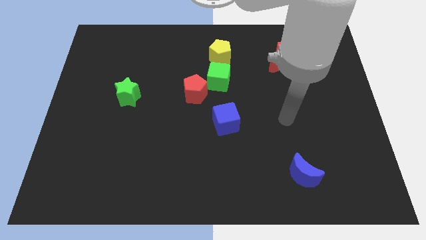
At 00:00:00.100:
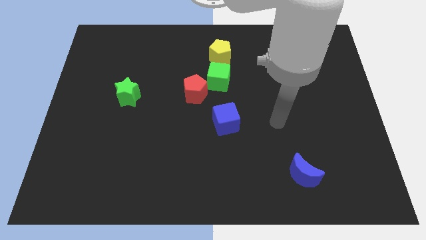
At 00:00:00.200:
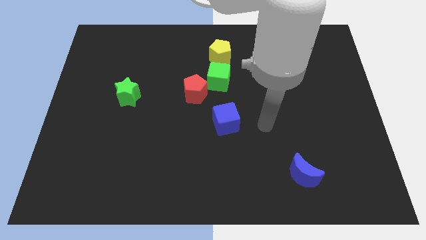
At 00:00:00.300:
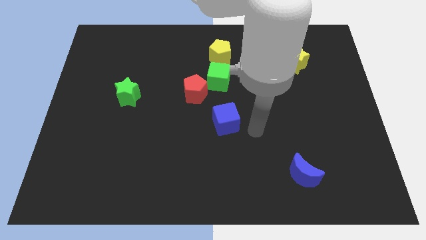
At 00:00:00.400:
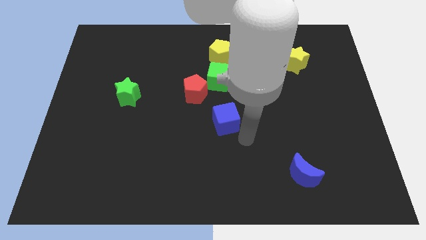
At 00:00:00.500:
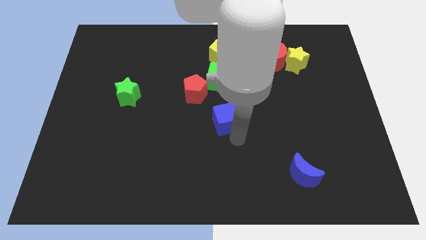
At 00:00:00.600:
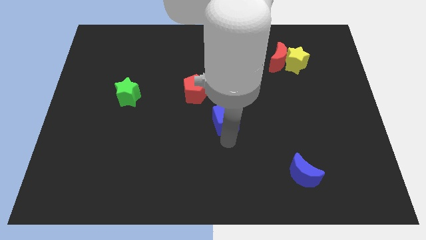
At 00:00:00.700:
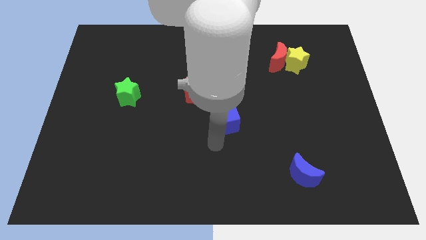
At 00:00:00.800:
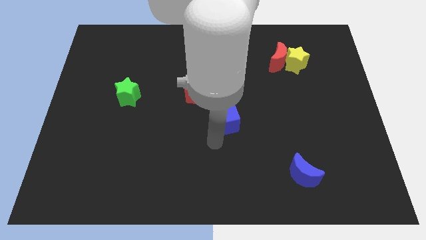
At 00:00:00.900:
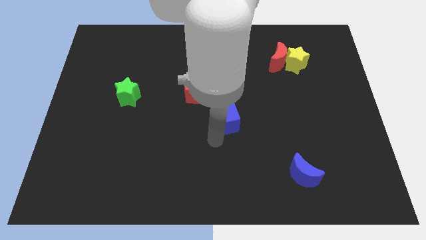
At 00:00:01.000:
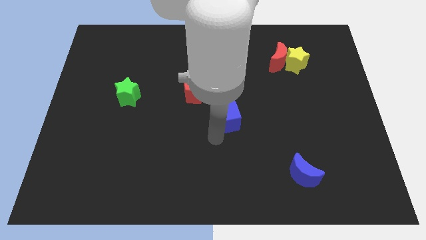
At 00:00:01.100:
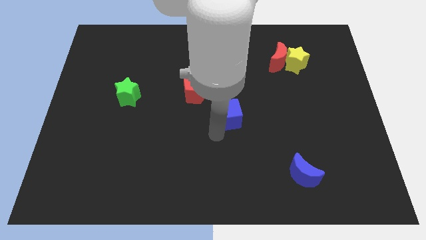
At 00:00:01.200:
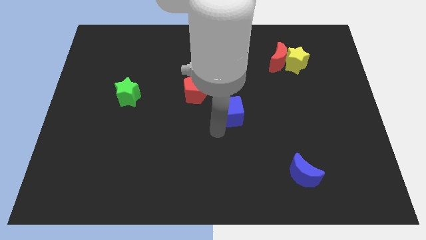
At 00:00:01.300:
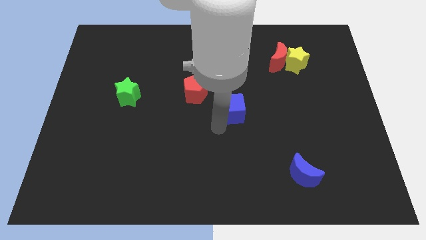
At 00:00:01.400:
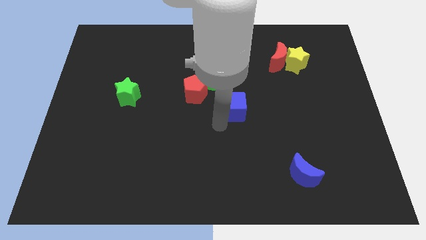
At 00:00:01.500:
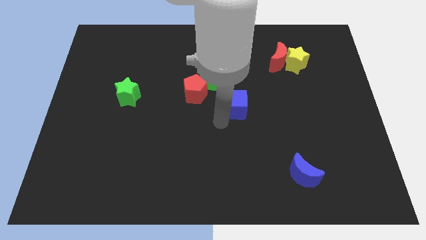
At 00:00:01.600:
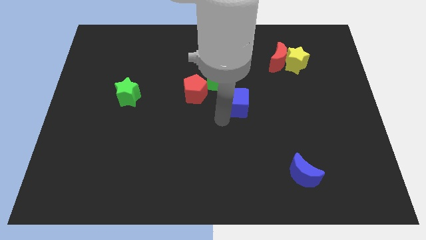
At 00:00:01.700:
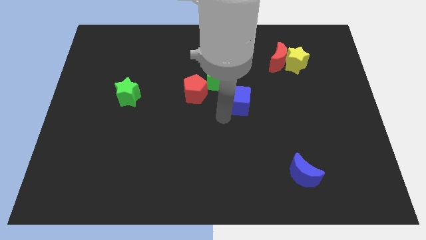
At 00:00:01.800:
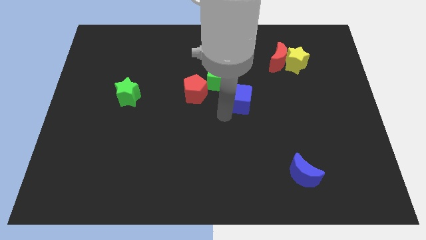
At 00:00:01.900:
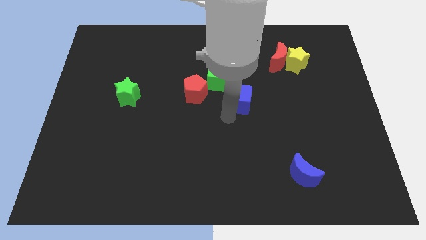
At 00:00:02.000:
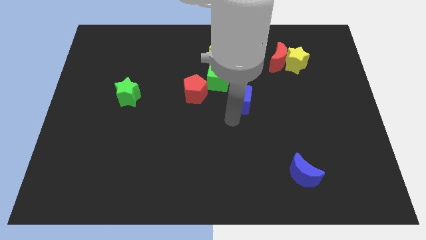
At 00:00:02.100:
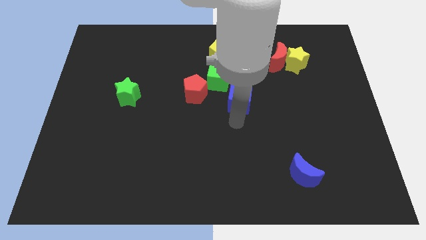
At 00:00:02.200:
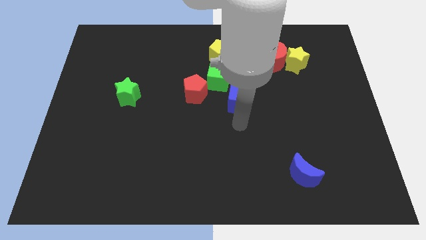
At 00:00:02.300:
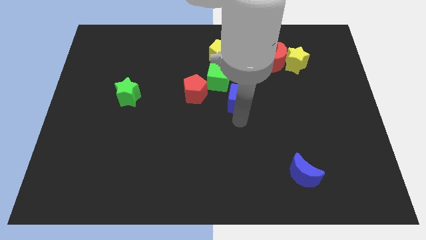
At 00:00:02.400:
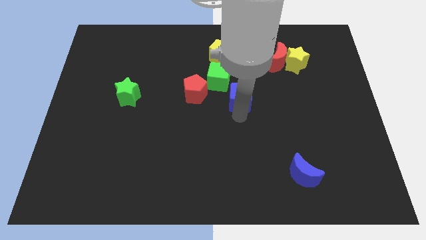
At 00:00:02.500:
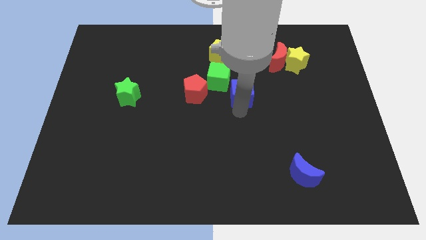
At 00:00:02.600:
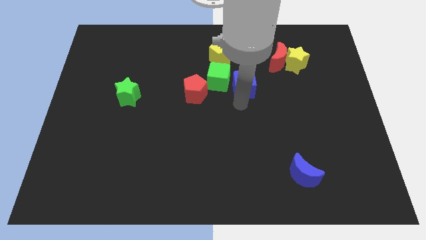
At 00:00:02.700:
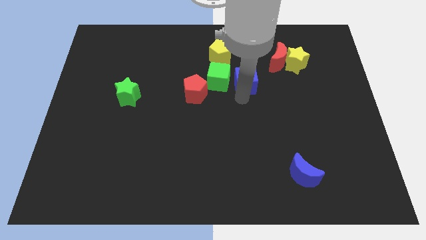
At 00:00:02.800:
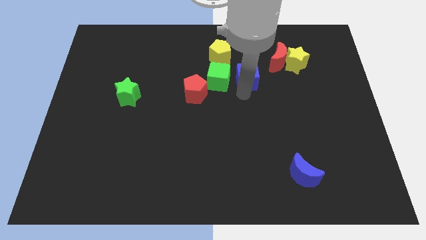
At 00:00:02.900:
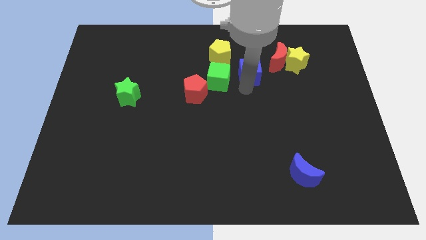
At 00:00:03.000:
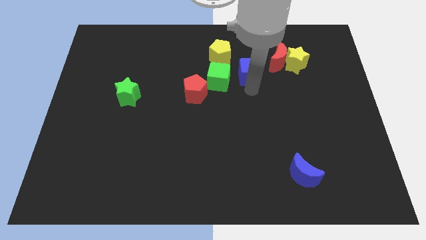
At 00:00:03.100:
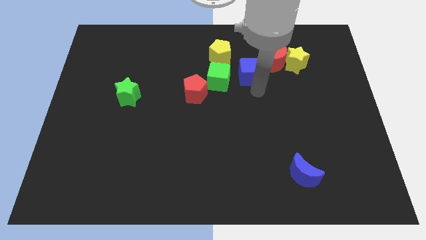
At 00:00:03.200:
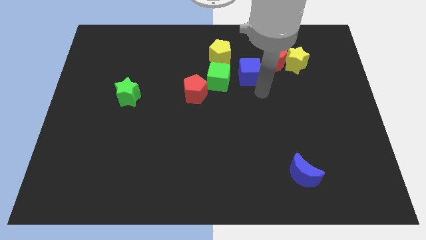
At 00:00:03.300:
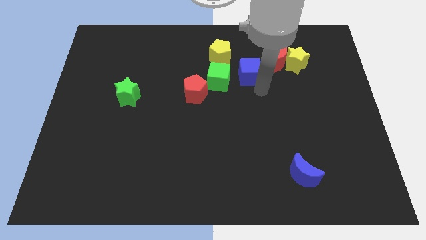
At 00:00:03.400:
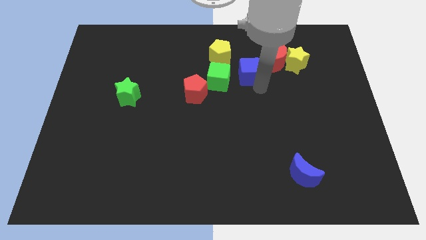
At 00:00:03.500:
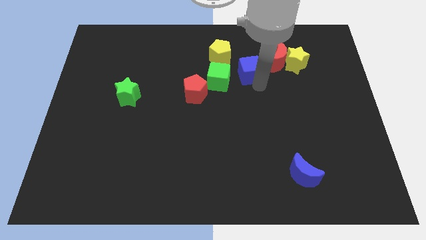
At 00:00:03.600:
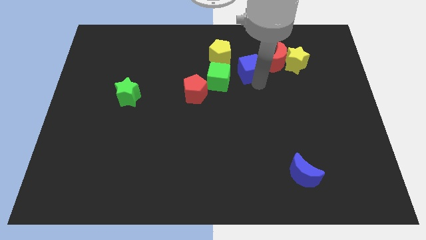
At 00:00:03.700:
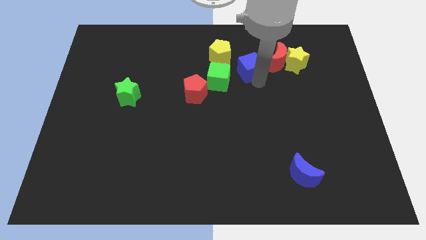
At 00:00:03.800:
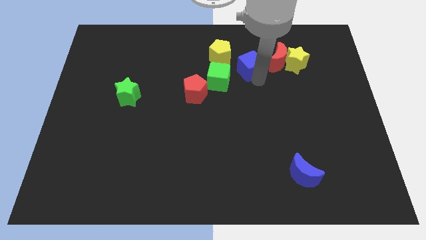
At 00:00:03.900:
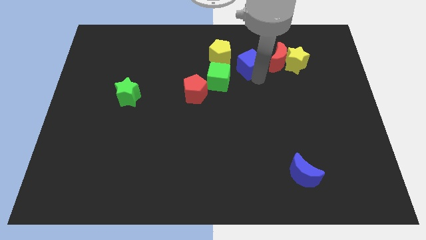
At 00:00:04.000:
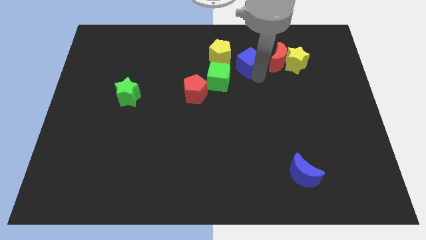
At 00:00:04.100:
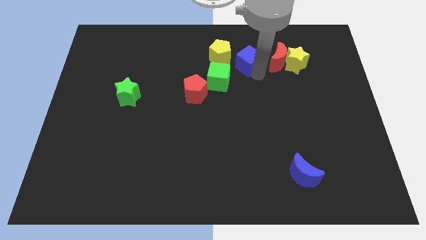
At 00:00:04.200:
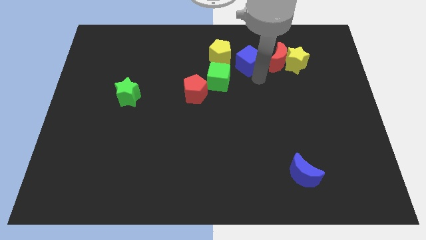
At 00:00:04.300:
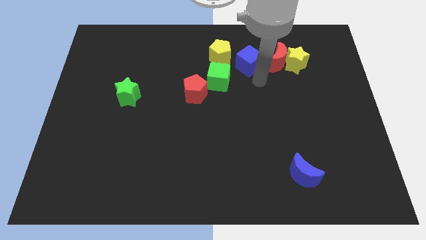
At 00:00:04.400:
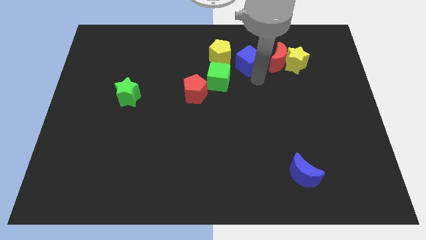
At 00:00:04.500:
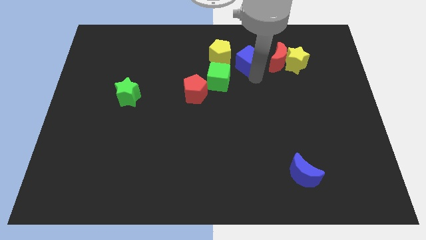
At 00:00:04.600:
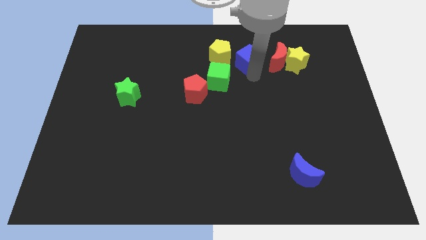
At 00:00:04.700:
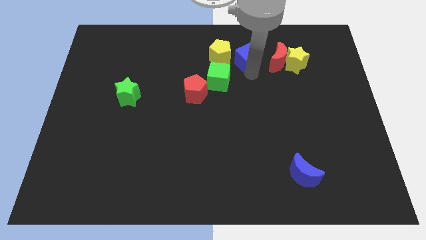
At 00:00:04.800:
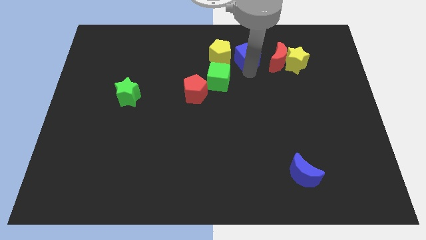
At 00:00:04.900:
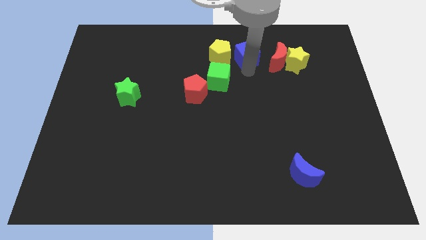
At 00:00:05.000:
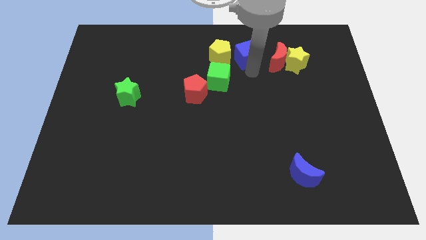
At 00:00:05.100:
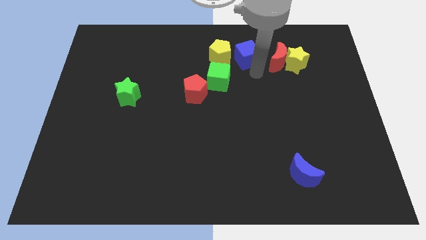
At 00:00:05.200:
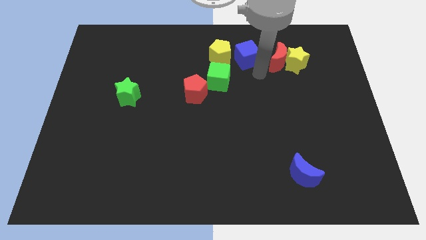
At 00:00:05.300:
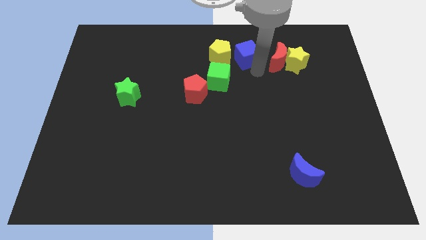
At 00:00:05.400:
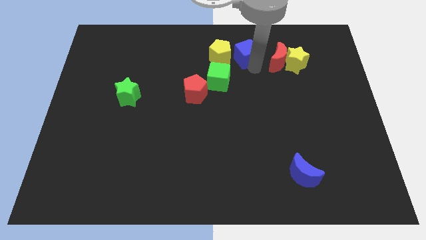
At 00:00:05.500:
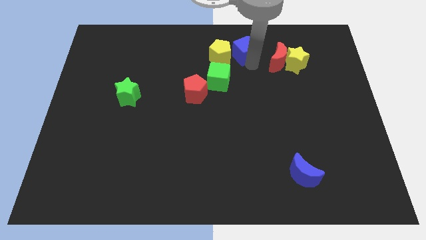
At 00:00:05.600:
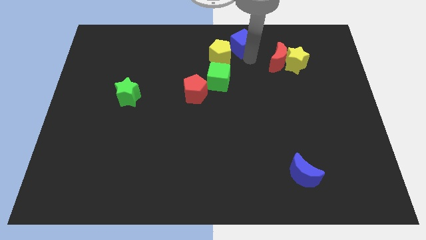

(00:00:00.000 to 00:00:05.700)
put the blue cube to the top side
